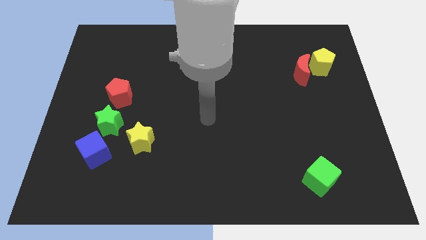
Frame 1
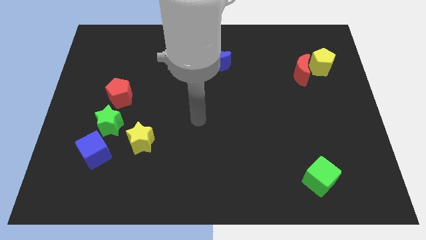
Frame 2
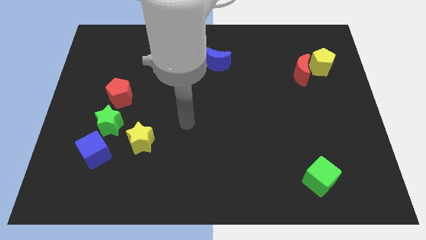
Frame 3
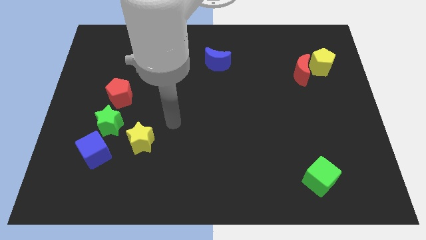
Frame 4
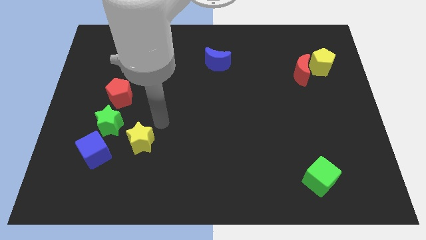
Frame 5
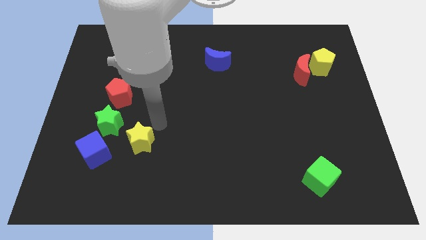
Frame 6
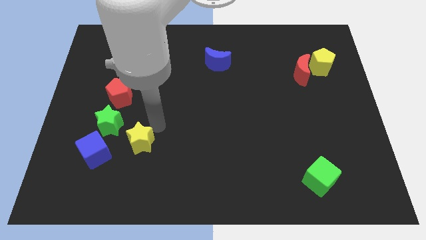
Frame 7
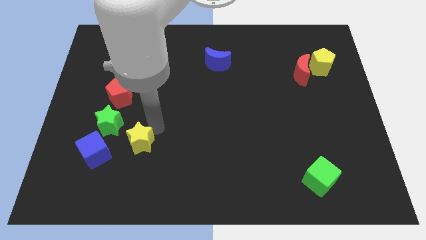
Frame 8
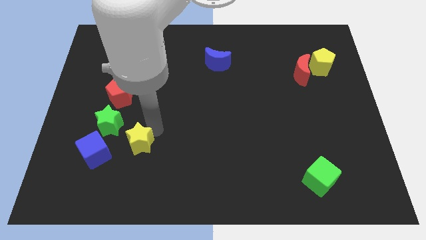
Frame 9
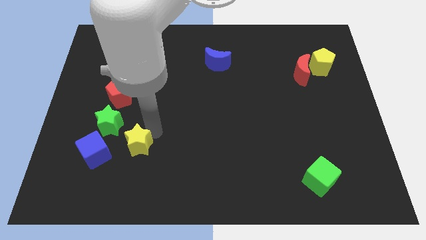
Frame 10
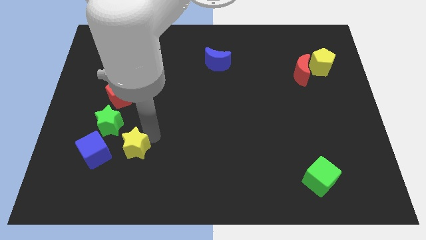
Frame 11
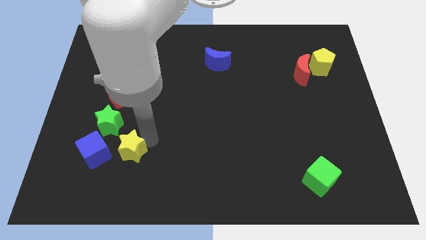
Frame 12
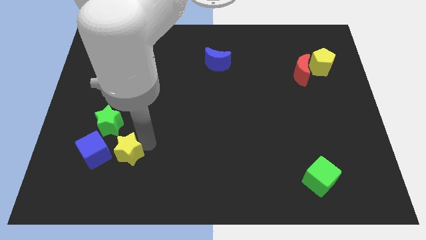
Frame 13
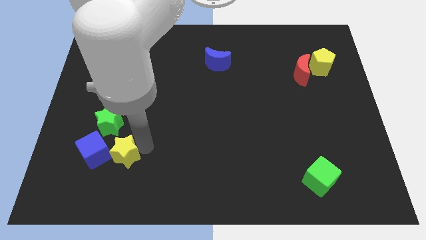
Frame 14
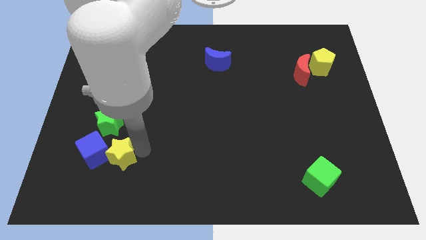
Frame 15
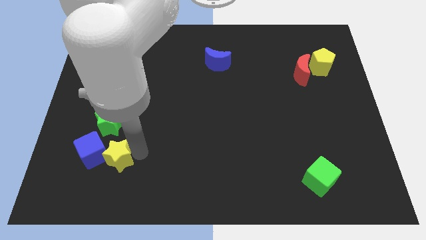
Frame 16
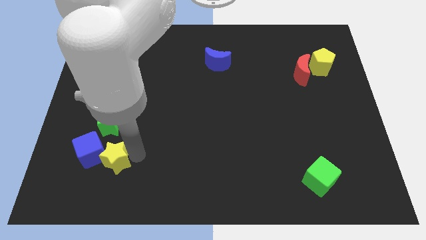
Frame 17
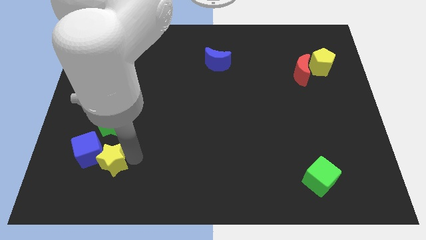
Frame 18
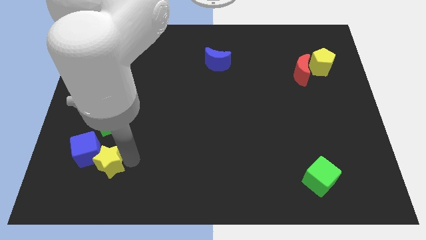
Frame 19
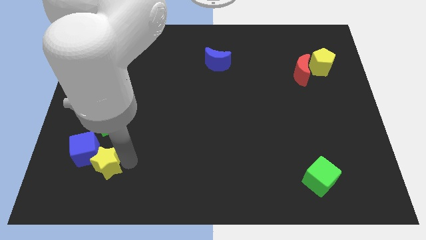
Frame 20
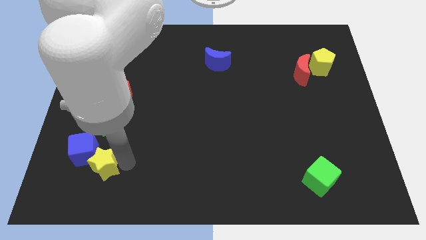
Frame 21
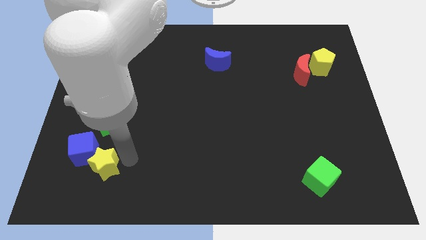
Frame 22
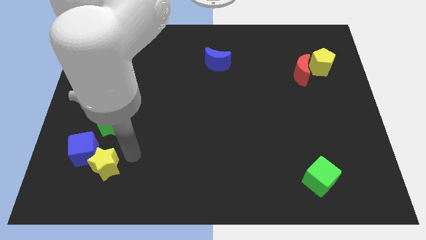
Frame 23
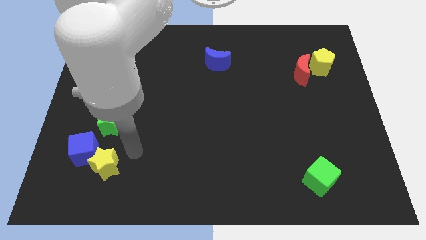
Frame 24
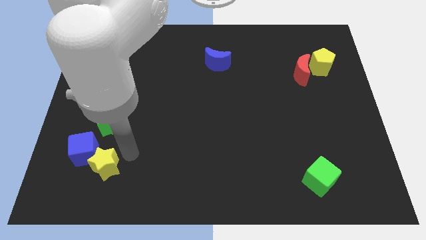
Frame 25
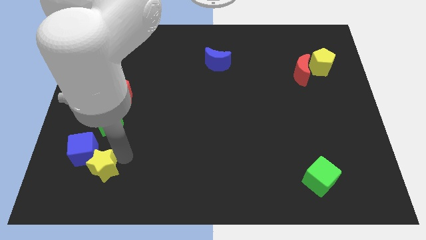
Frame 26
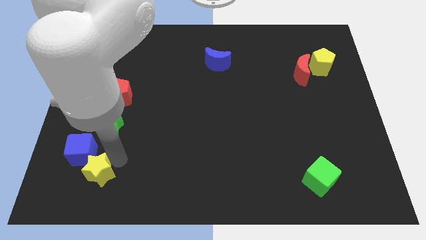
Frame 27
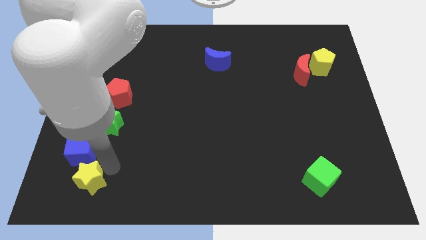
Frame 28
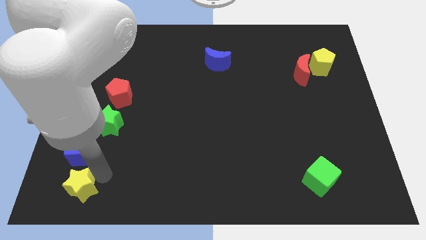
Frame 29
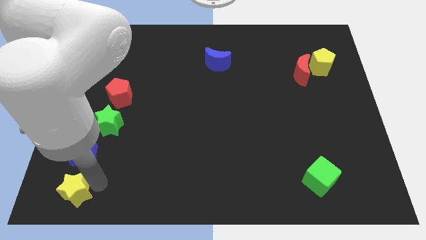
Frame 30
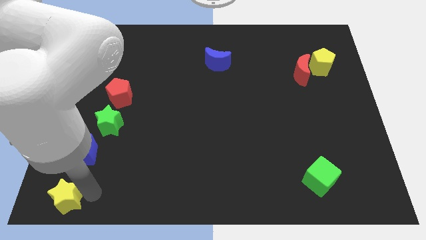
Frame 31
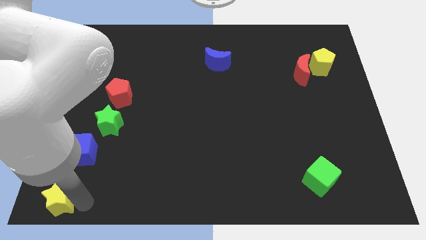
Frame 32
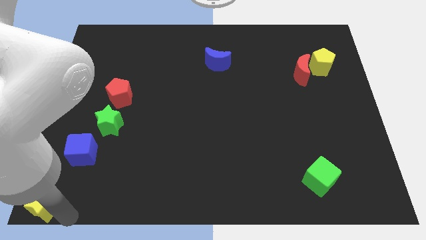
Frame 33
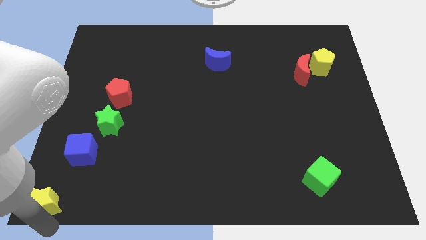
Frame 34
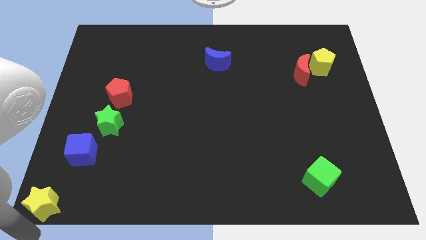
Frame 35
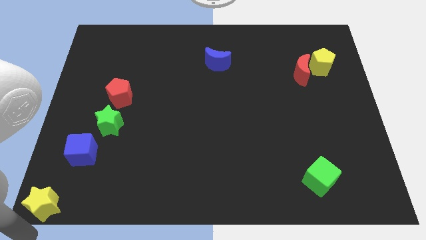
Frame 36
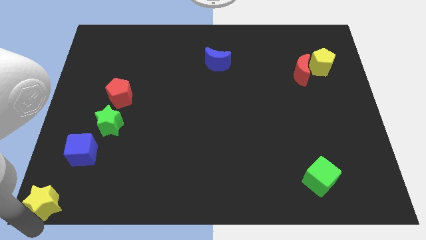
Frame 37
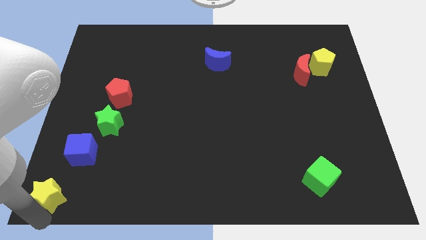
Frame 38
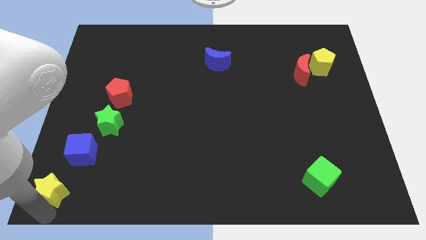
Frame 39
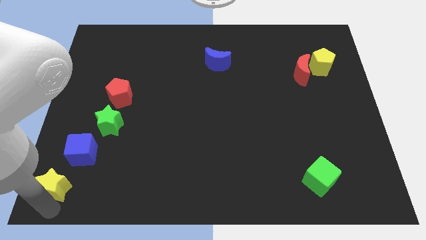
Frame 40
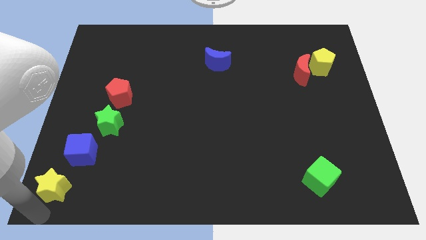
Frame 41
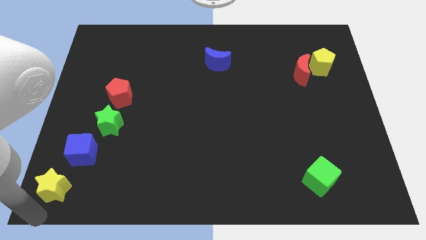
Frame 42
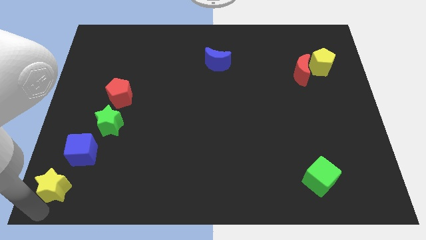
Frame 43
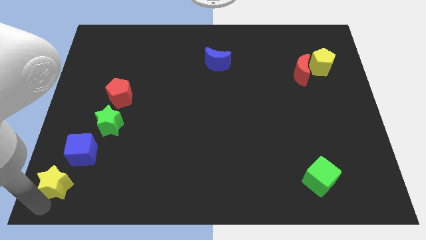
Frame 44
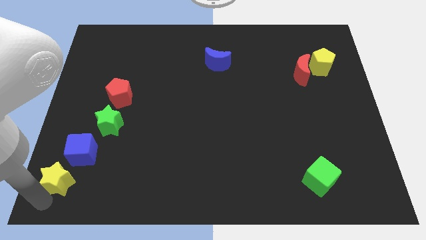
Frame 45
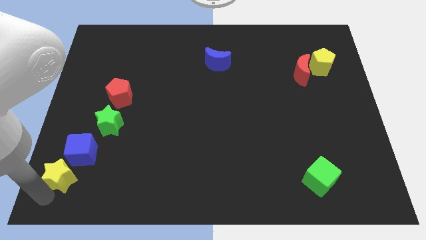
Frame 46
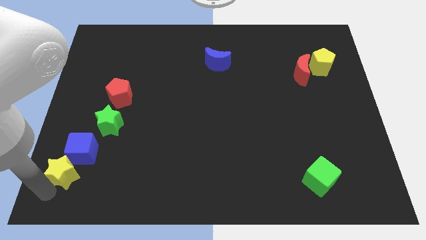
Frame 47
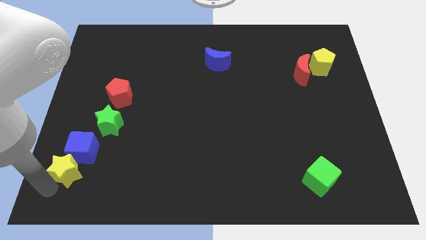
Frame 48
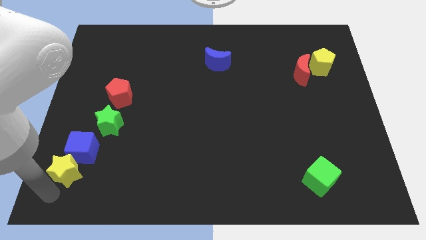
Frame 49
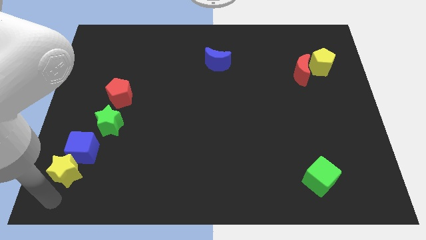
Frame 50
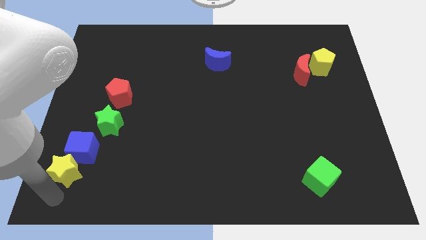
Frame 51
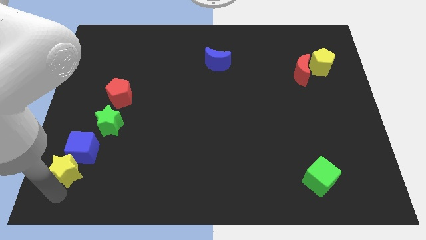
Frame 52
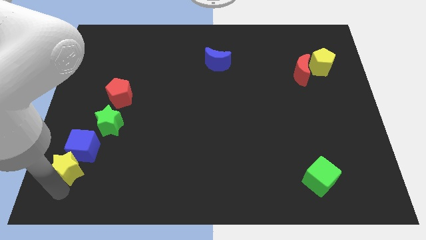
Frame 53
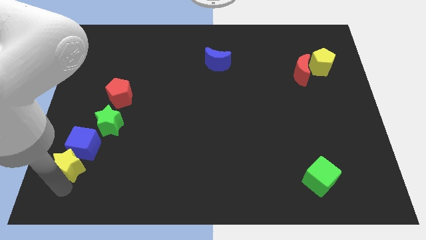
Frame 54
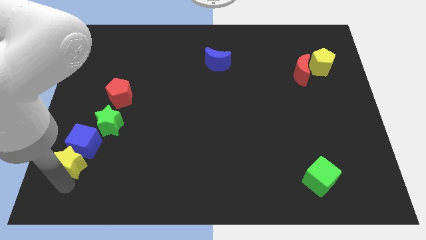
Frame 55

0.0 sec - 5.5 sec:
move the yellow star to the bottom left of the green star
